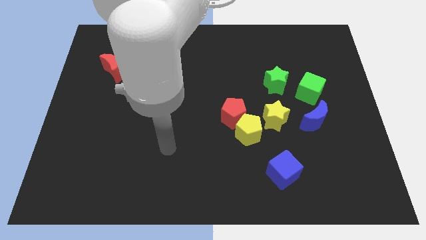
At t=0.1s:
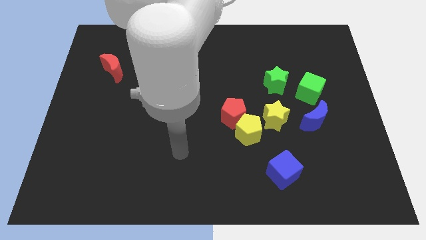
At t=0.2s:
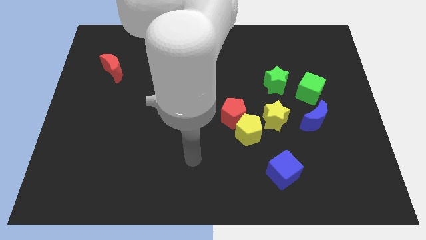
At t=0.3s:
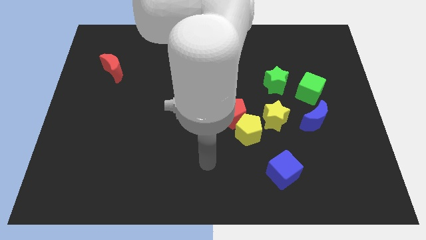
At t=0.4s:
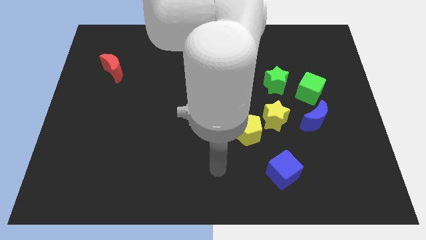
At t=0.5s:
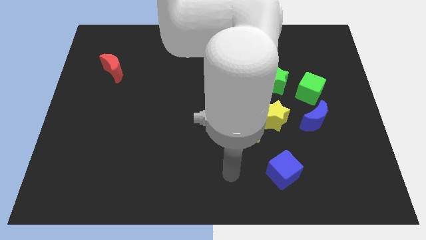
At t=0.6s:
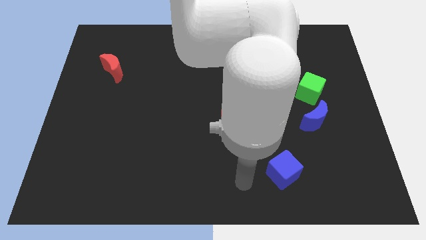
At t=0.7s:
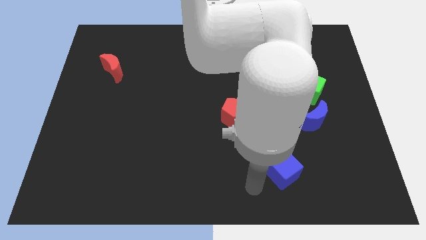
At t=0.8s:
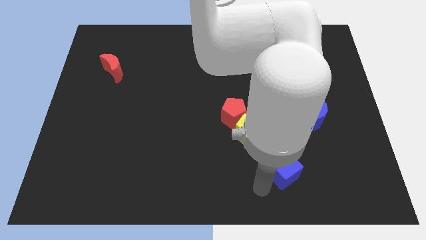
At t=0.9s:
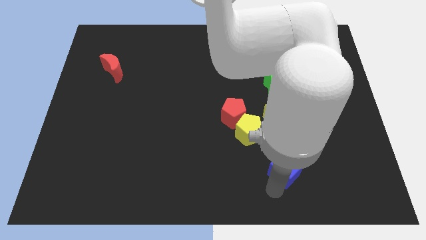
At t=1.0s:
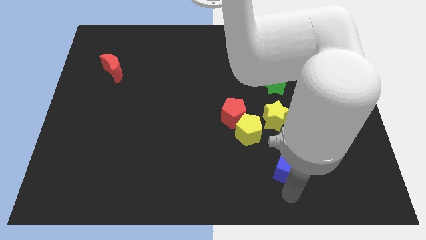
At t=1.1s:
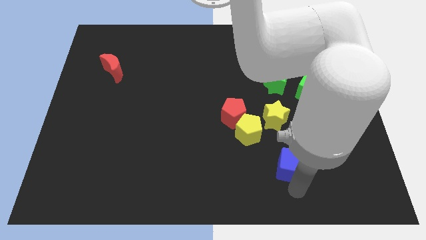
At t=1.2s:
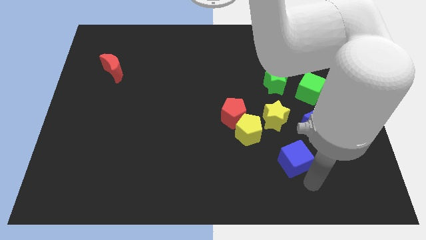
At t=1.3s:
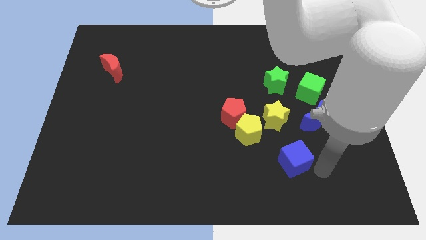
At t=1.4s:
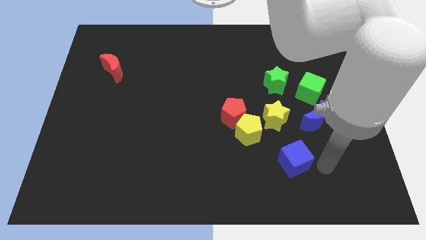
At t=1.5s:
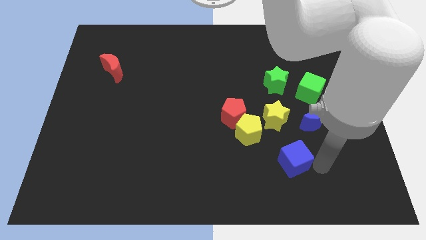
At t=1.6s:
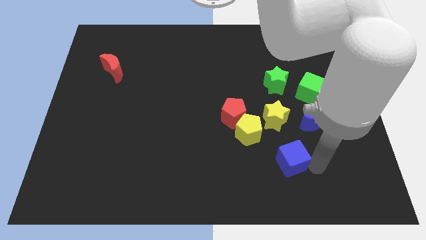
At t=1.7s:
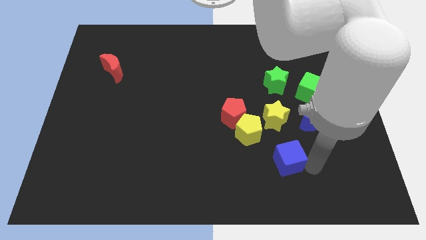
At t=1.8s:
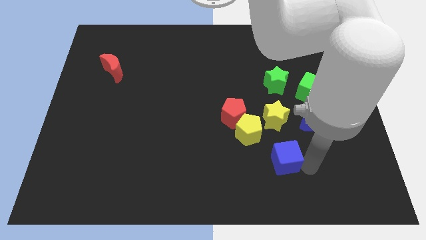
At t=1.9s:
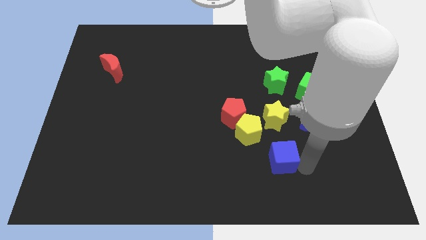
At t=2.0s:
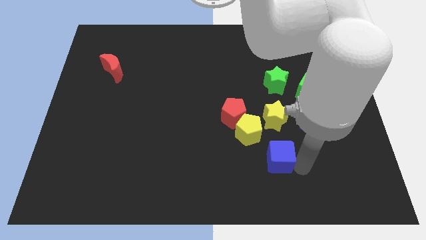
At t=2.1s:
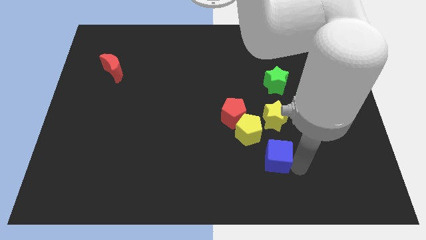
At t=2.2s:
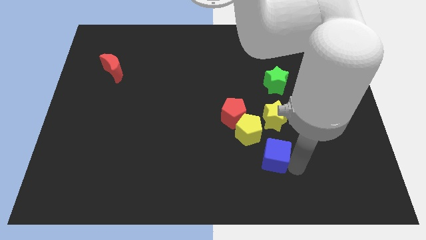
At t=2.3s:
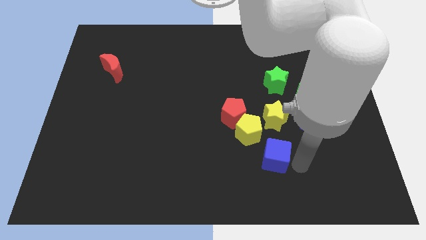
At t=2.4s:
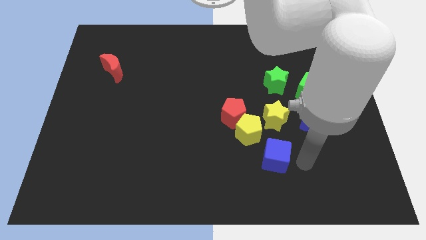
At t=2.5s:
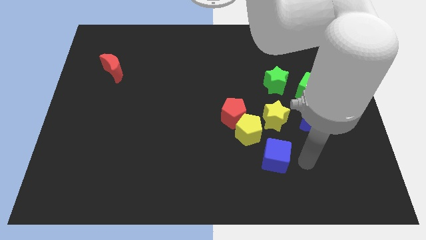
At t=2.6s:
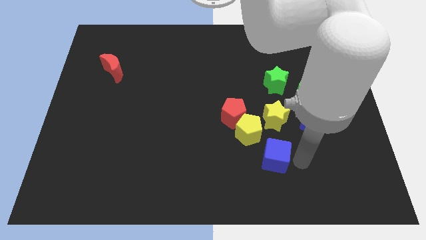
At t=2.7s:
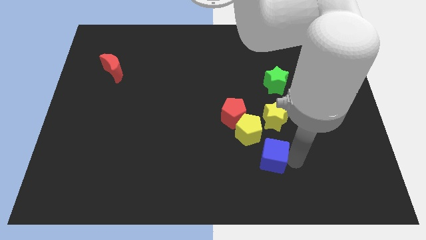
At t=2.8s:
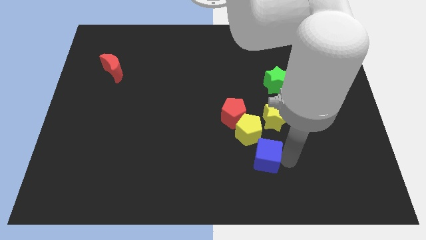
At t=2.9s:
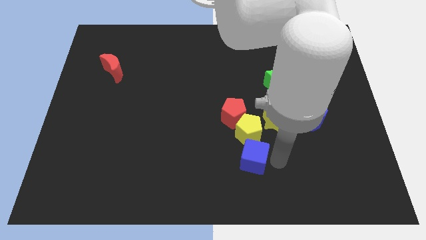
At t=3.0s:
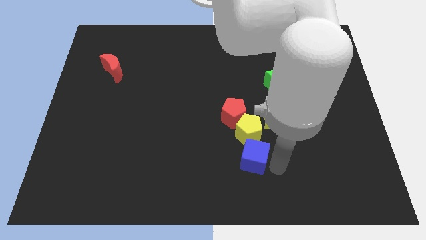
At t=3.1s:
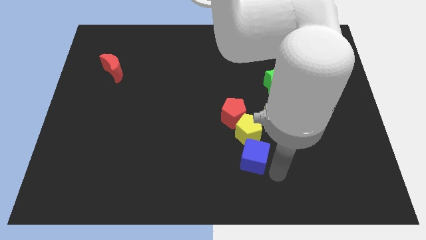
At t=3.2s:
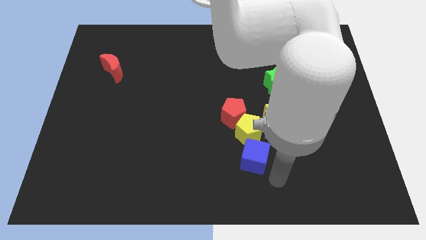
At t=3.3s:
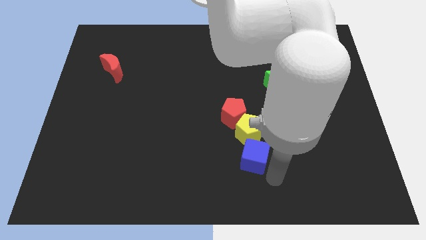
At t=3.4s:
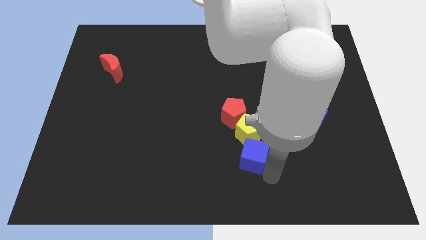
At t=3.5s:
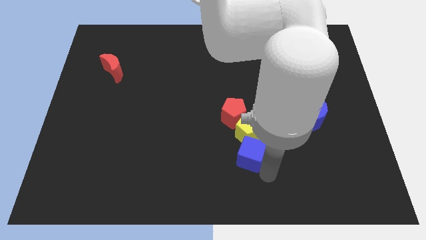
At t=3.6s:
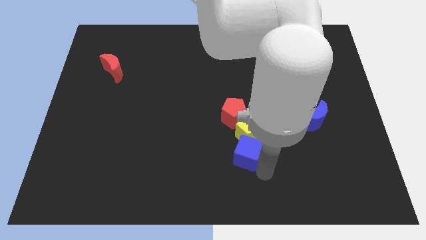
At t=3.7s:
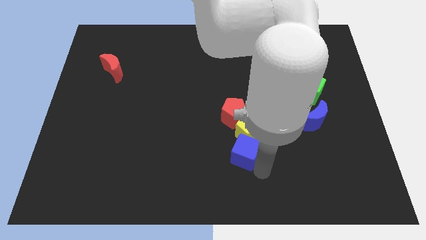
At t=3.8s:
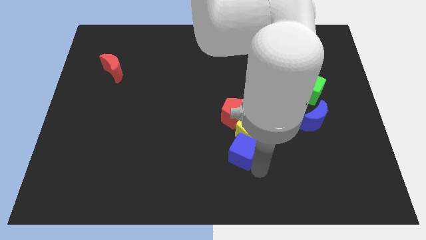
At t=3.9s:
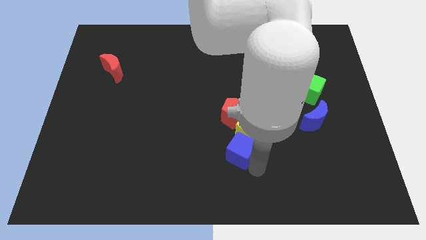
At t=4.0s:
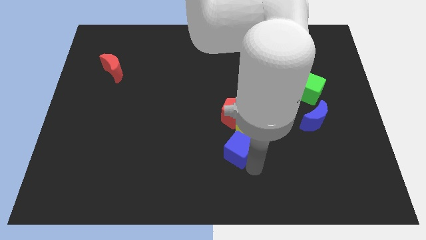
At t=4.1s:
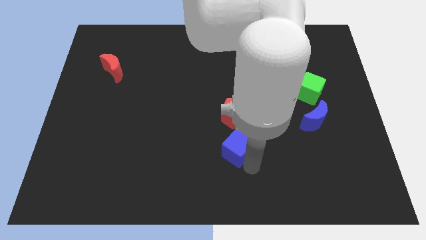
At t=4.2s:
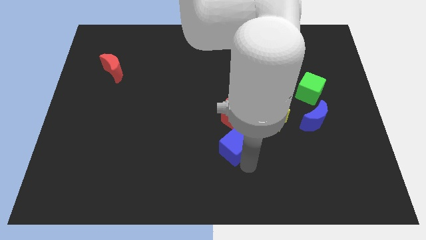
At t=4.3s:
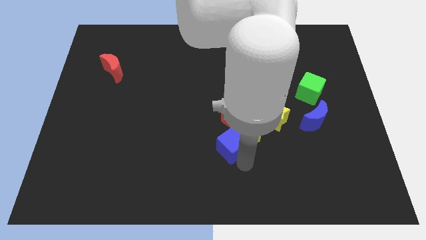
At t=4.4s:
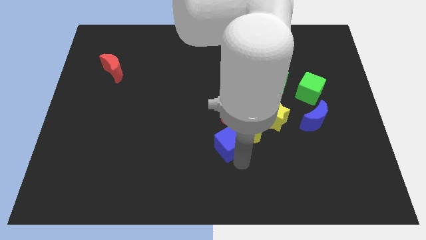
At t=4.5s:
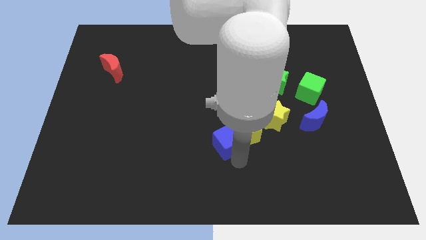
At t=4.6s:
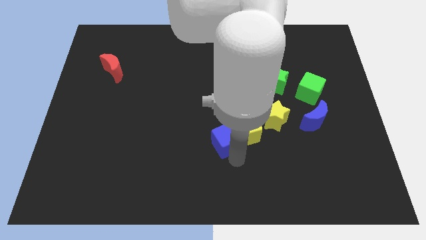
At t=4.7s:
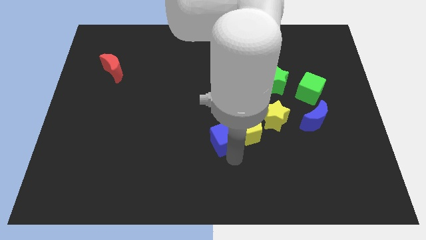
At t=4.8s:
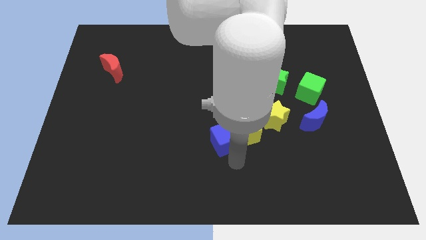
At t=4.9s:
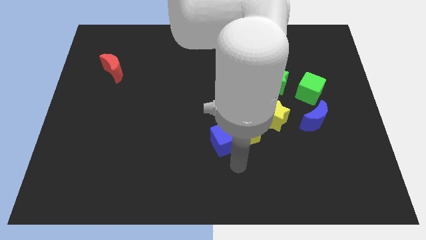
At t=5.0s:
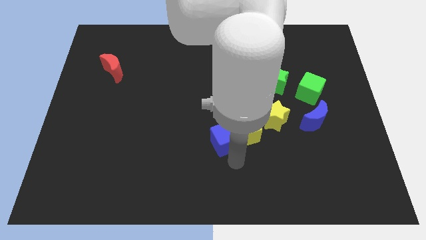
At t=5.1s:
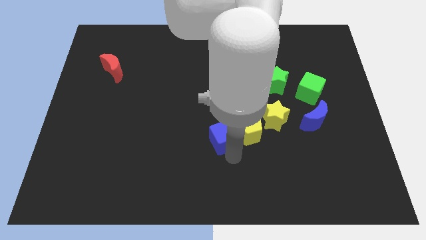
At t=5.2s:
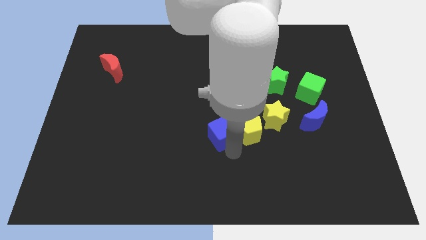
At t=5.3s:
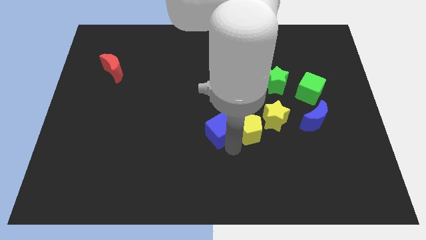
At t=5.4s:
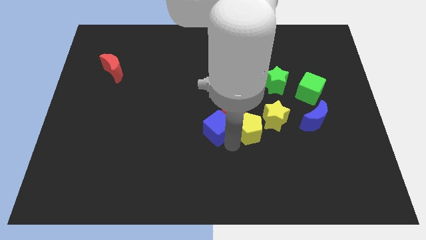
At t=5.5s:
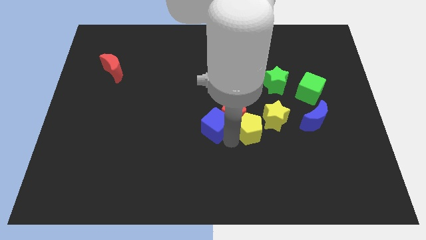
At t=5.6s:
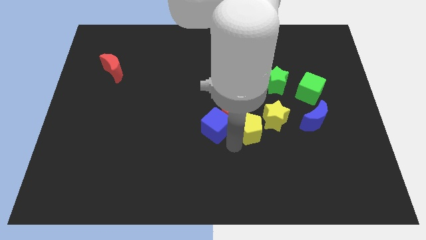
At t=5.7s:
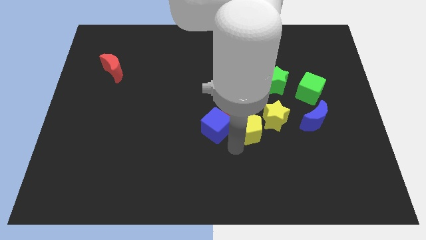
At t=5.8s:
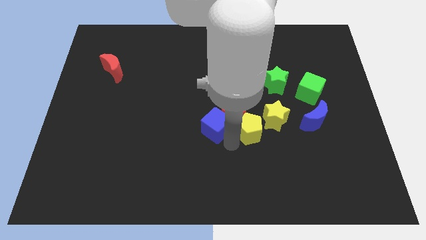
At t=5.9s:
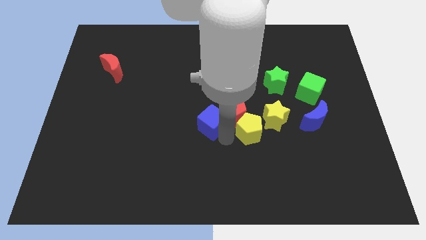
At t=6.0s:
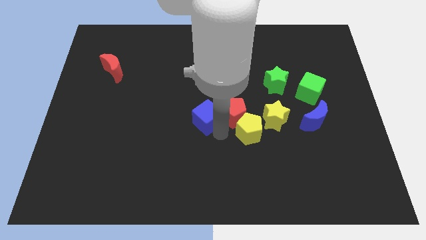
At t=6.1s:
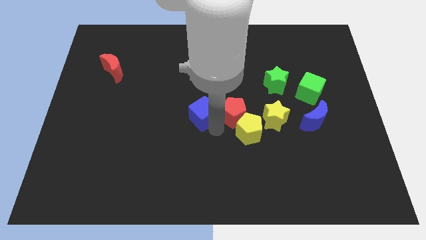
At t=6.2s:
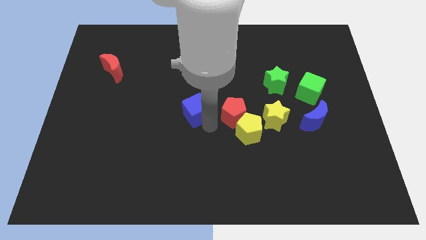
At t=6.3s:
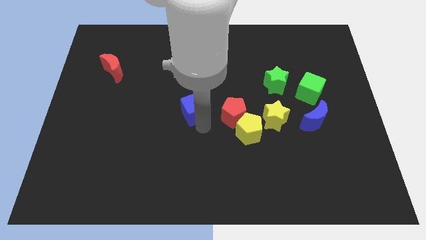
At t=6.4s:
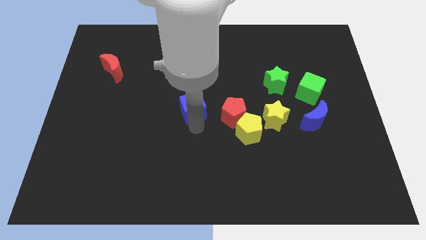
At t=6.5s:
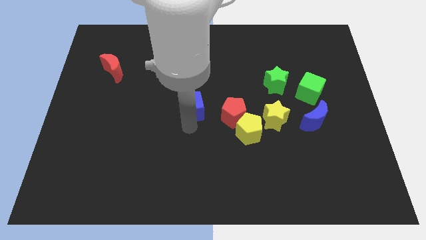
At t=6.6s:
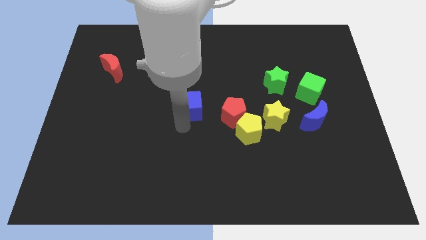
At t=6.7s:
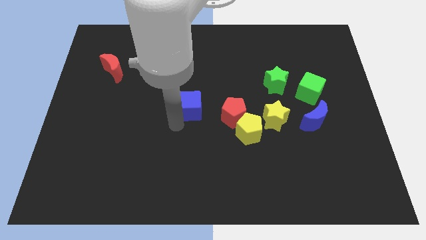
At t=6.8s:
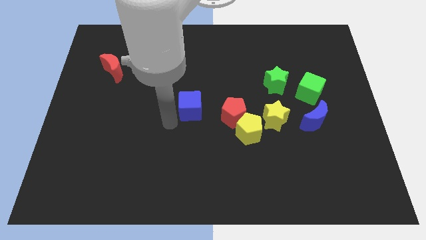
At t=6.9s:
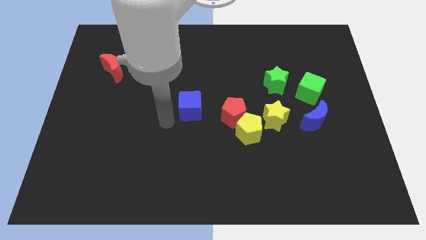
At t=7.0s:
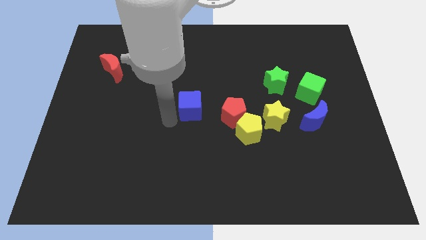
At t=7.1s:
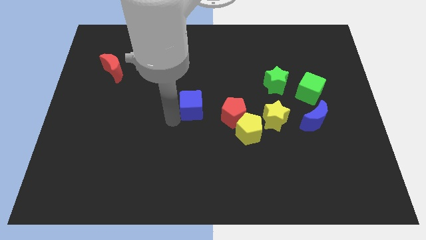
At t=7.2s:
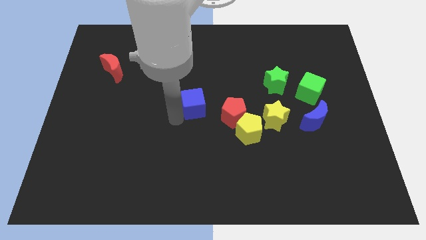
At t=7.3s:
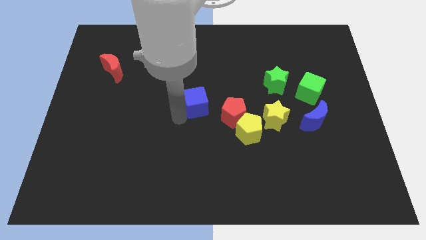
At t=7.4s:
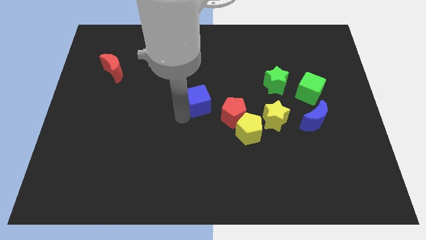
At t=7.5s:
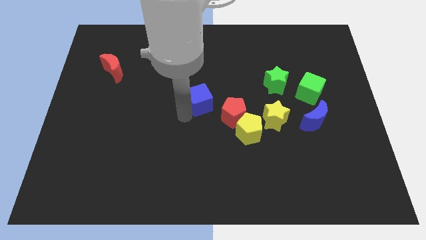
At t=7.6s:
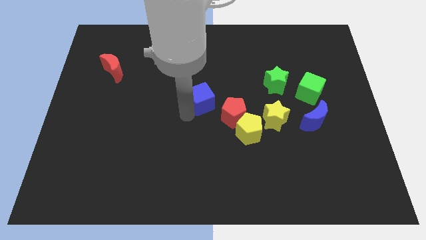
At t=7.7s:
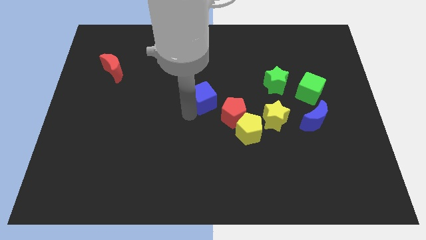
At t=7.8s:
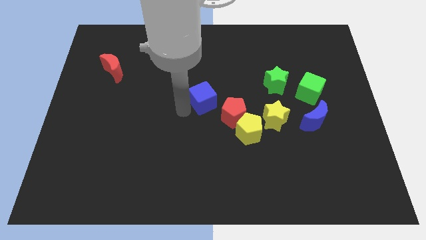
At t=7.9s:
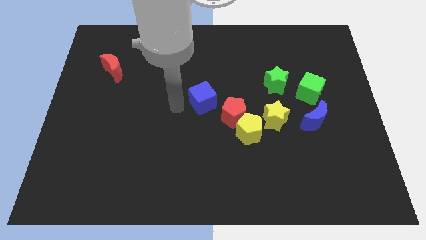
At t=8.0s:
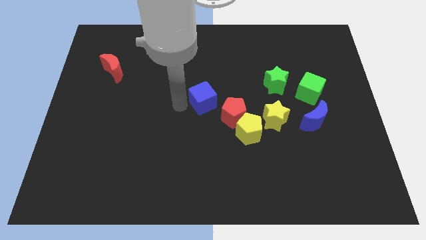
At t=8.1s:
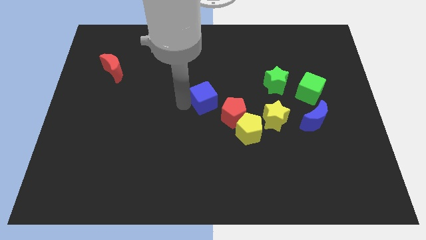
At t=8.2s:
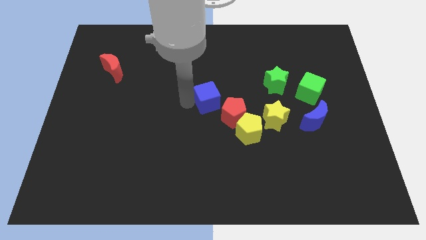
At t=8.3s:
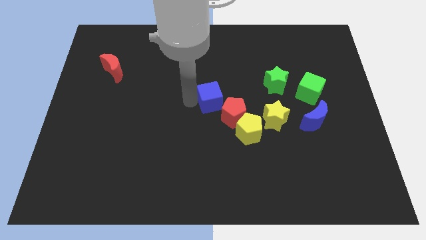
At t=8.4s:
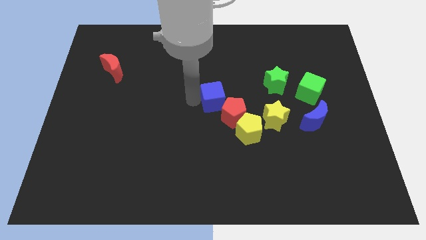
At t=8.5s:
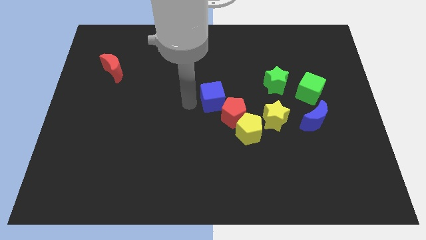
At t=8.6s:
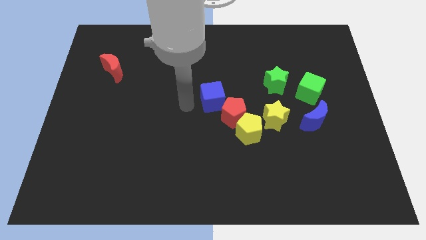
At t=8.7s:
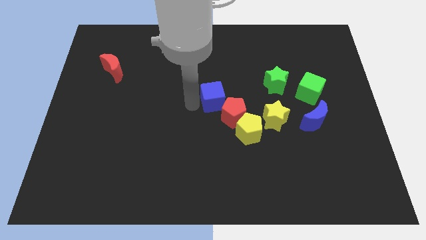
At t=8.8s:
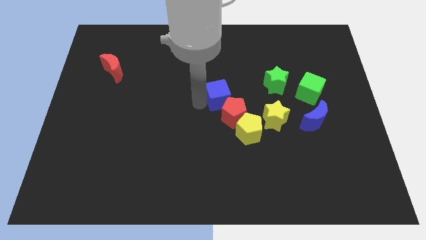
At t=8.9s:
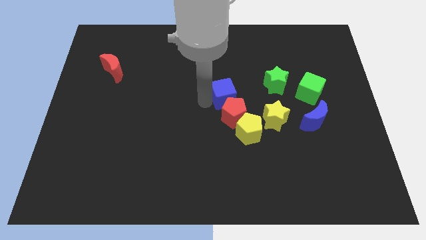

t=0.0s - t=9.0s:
push the blue cube a little bit up
